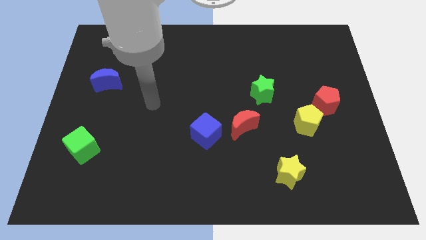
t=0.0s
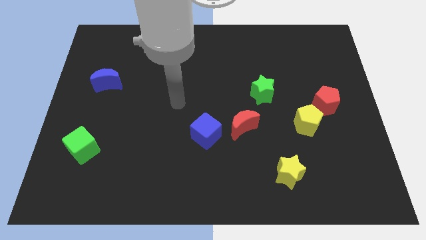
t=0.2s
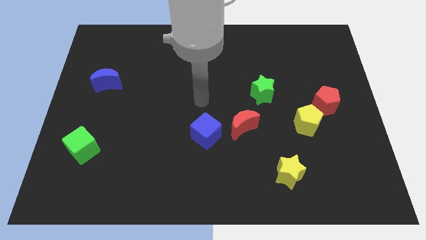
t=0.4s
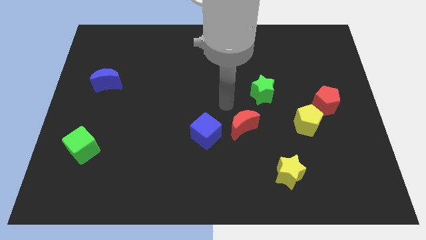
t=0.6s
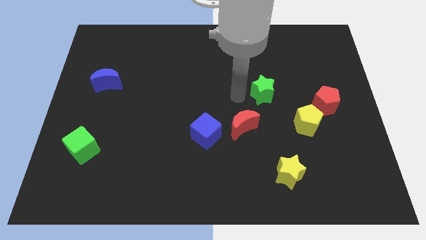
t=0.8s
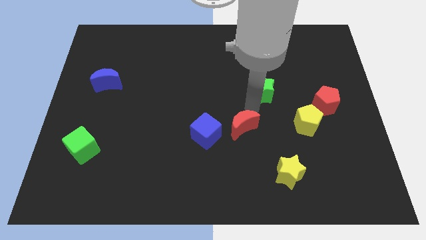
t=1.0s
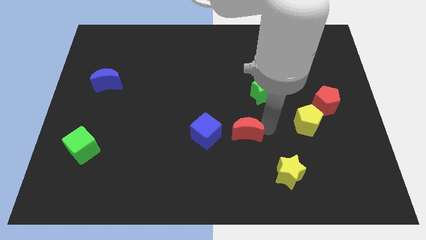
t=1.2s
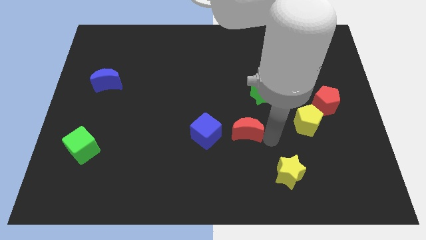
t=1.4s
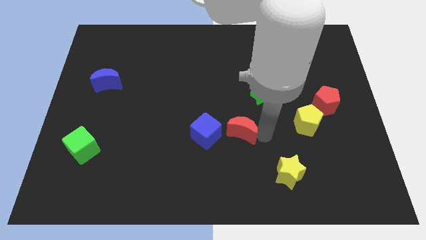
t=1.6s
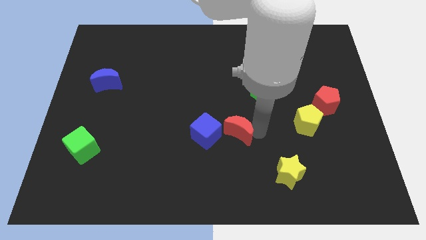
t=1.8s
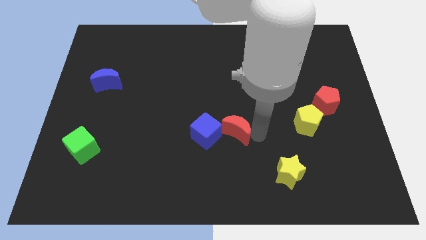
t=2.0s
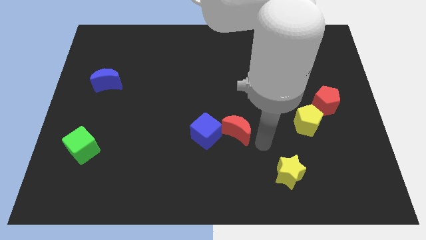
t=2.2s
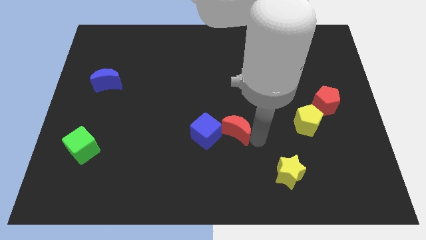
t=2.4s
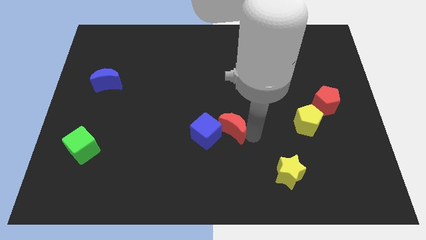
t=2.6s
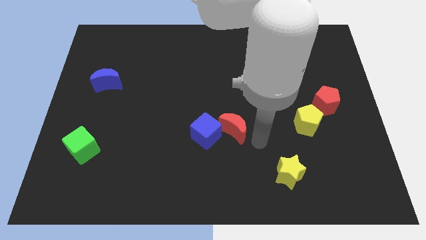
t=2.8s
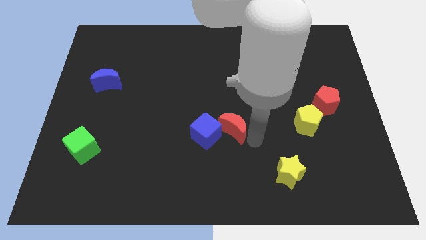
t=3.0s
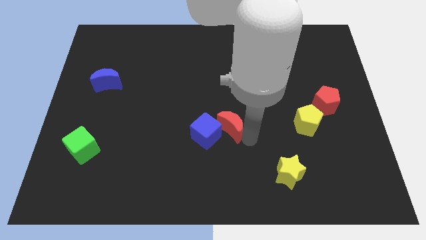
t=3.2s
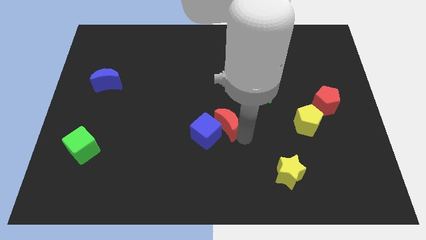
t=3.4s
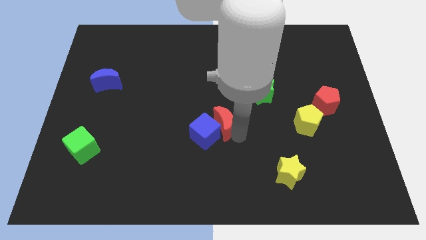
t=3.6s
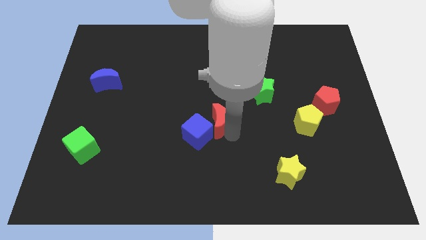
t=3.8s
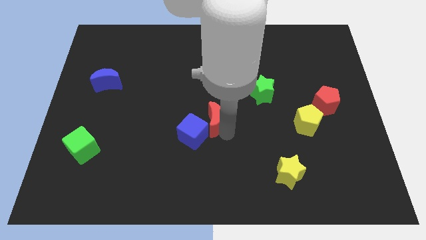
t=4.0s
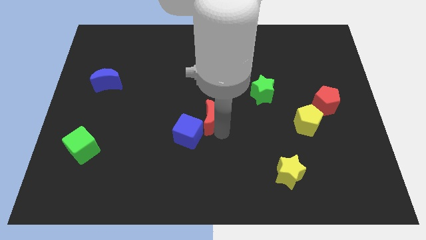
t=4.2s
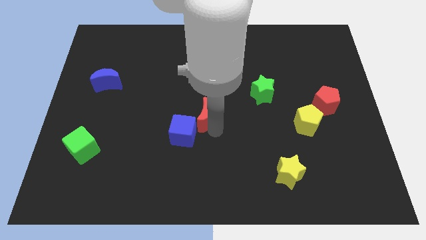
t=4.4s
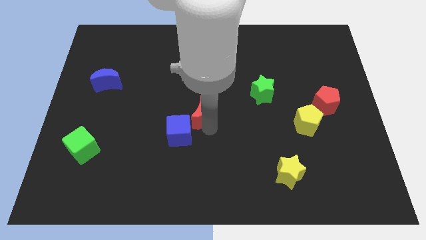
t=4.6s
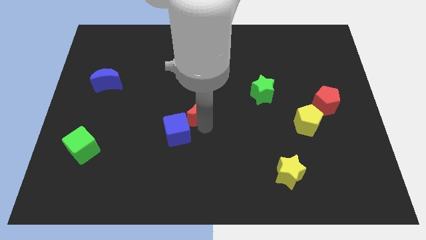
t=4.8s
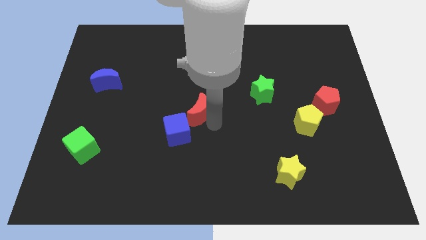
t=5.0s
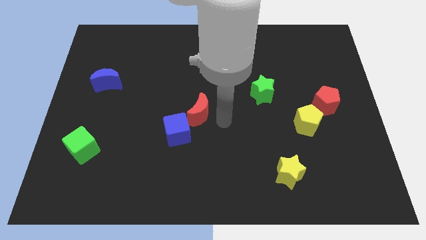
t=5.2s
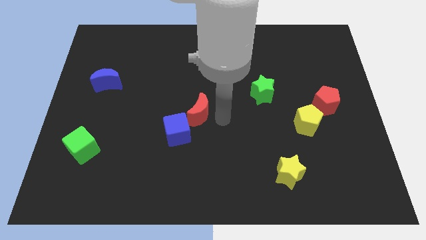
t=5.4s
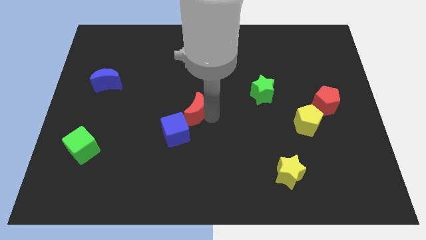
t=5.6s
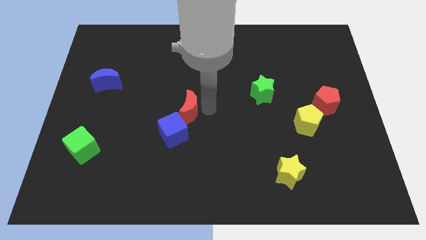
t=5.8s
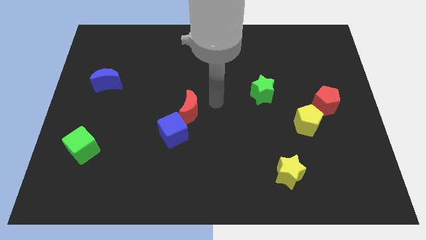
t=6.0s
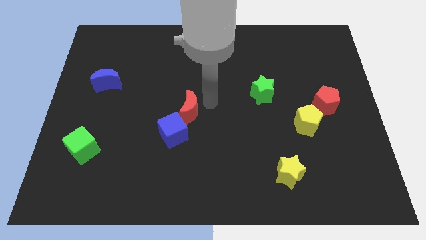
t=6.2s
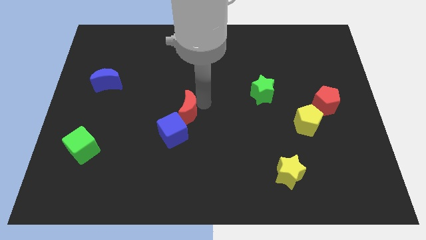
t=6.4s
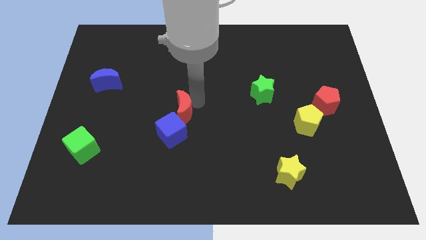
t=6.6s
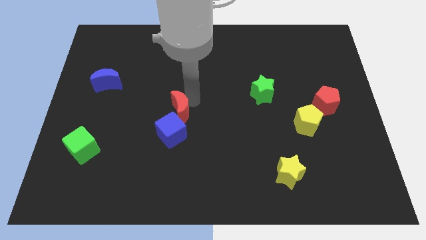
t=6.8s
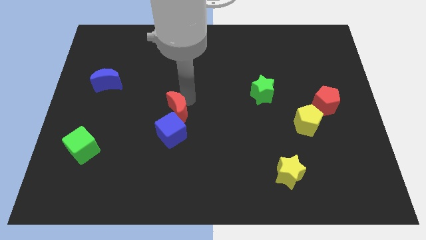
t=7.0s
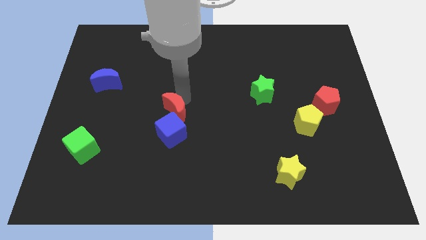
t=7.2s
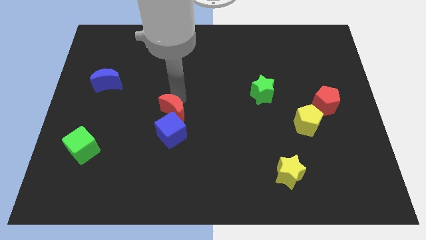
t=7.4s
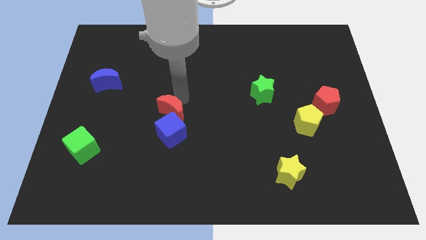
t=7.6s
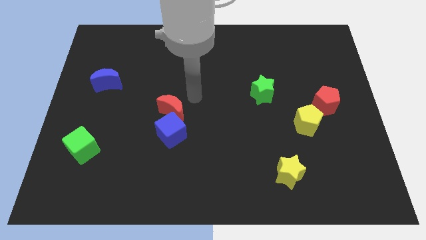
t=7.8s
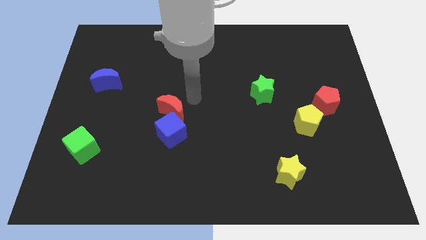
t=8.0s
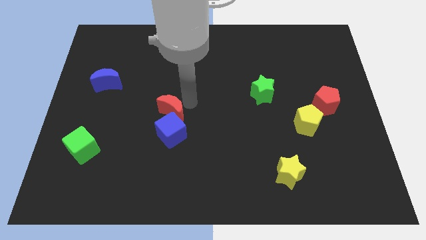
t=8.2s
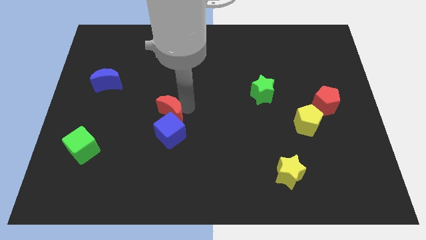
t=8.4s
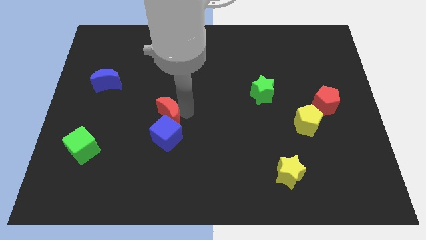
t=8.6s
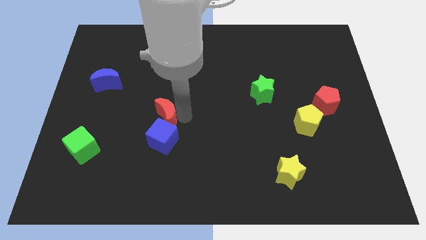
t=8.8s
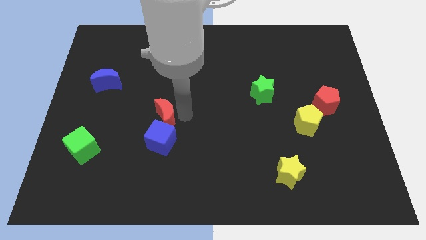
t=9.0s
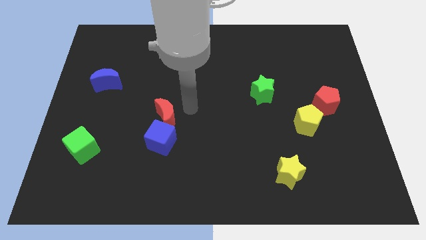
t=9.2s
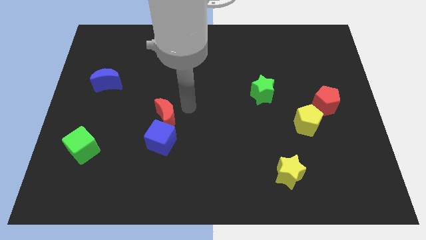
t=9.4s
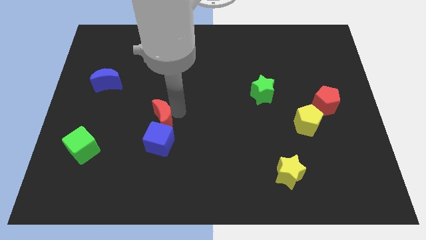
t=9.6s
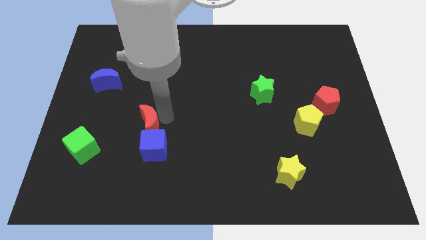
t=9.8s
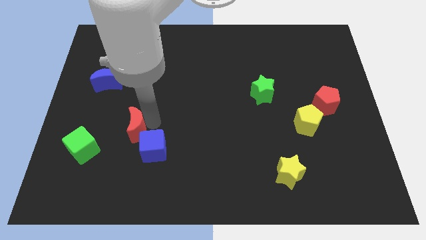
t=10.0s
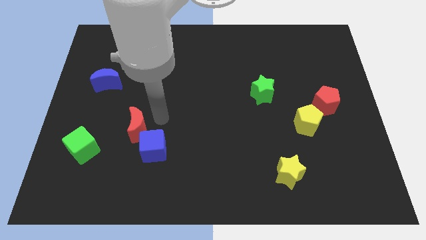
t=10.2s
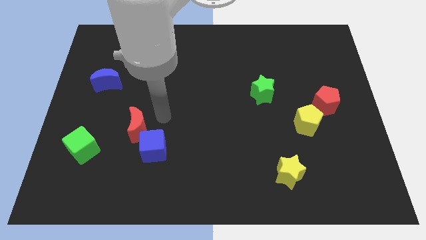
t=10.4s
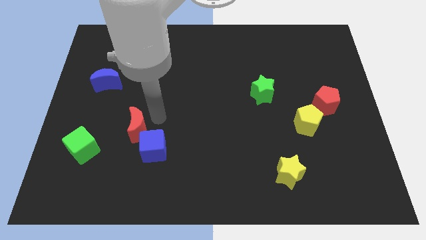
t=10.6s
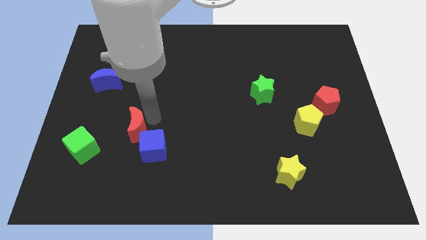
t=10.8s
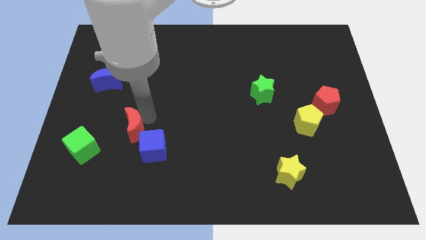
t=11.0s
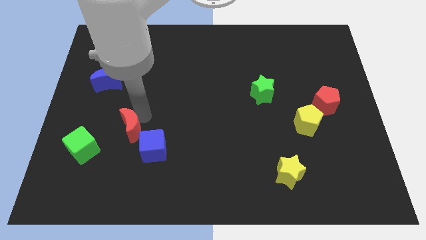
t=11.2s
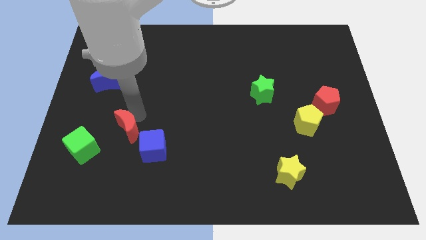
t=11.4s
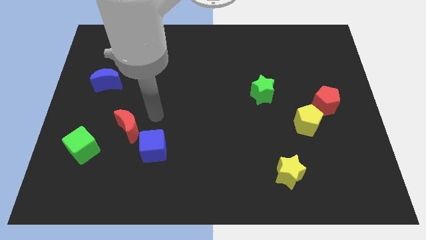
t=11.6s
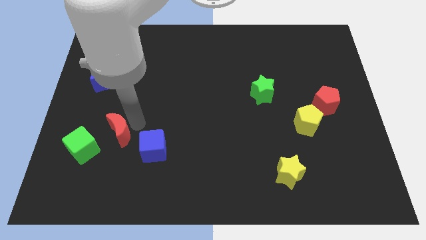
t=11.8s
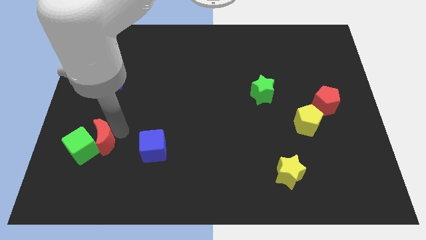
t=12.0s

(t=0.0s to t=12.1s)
slide the red moon close to the green cube
